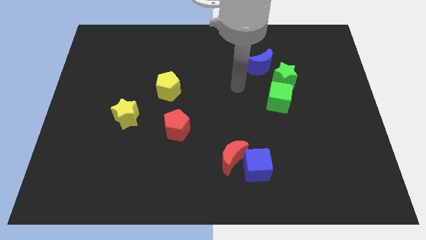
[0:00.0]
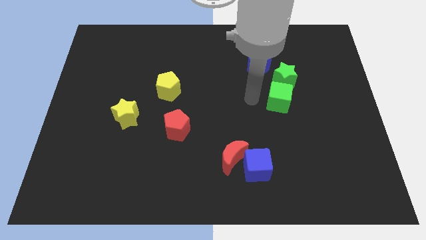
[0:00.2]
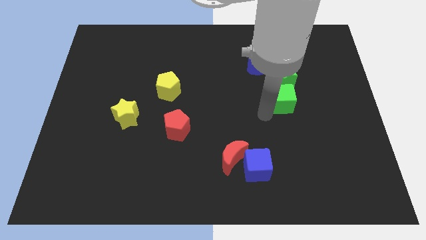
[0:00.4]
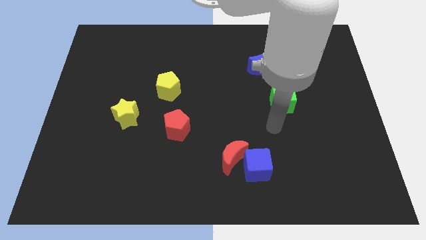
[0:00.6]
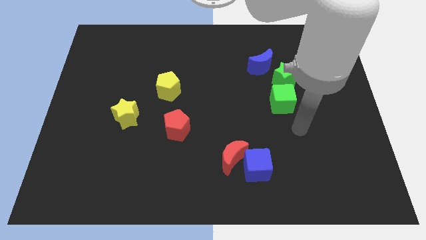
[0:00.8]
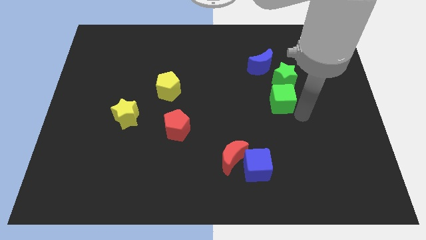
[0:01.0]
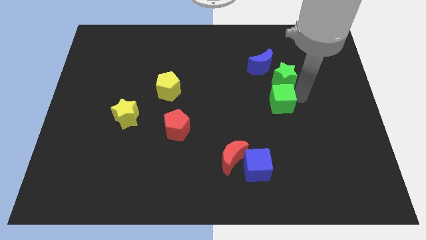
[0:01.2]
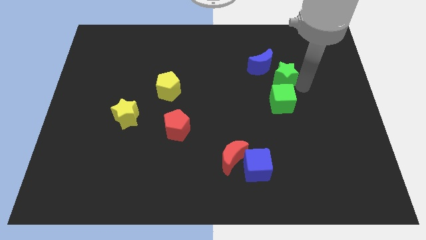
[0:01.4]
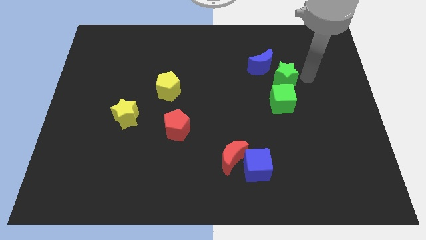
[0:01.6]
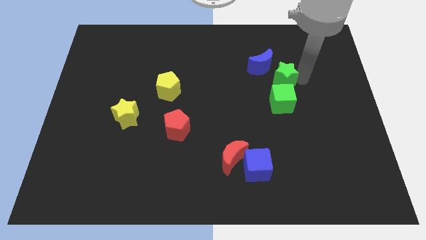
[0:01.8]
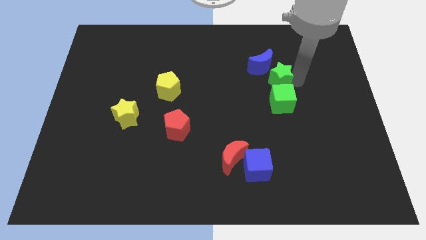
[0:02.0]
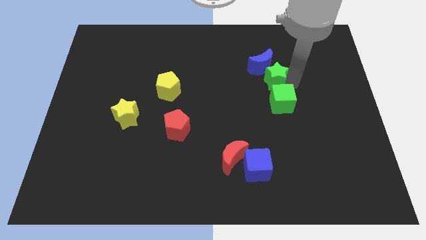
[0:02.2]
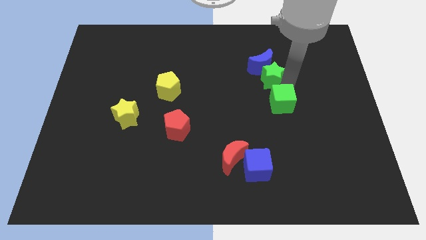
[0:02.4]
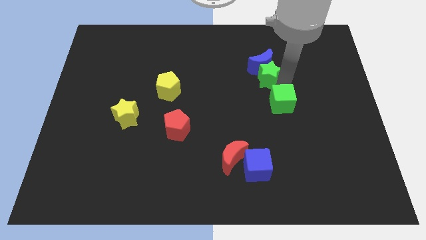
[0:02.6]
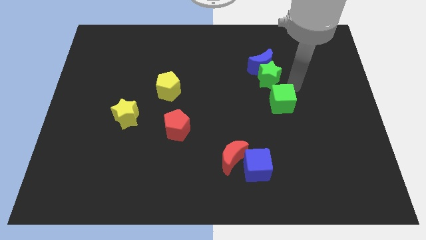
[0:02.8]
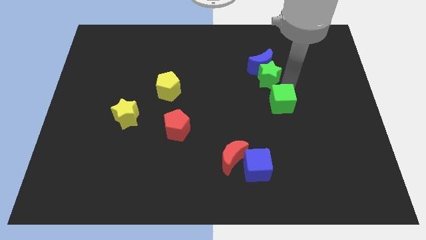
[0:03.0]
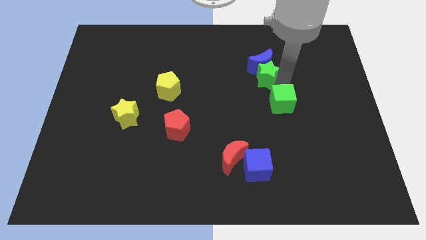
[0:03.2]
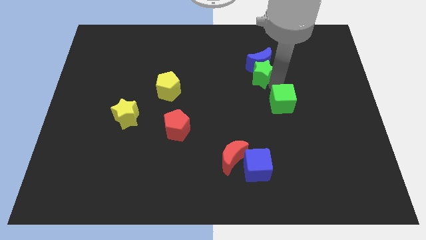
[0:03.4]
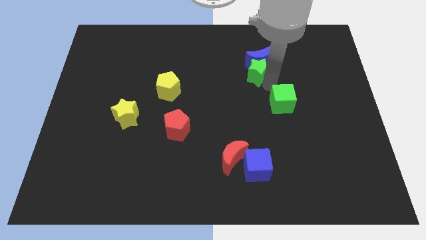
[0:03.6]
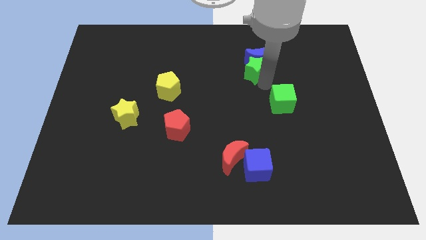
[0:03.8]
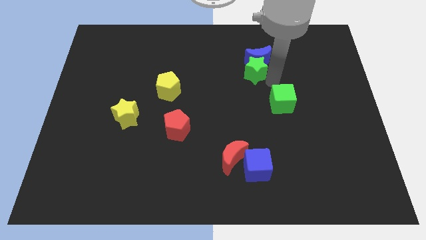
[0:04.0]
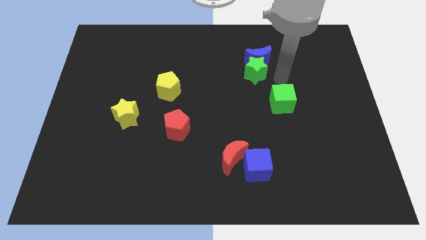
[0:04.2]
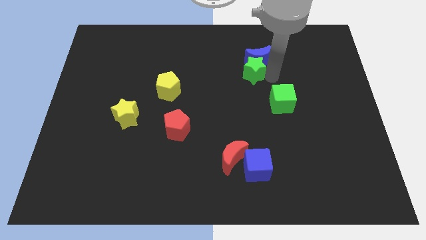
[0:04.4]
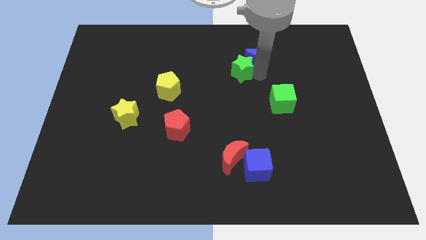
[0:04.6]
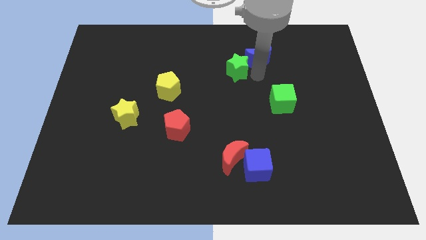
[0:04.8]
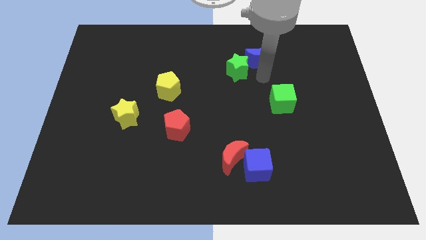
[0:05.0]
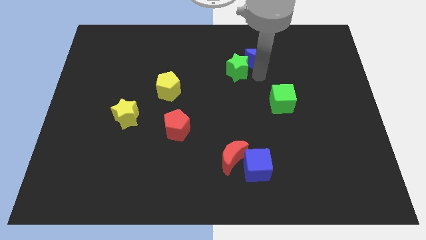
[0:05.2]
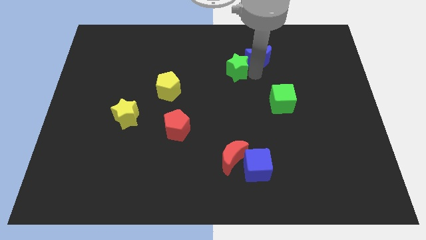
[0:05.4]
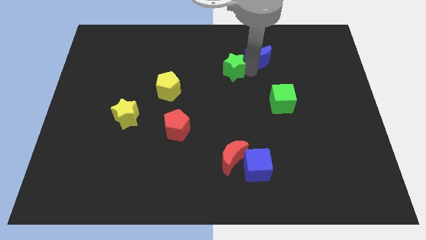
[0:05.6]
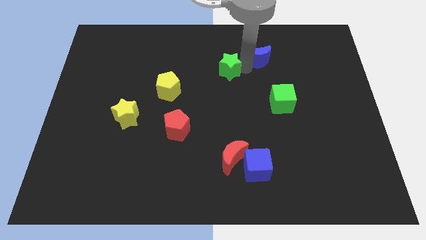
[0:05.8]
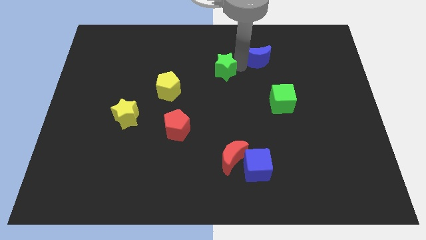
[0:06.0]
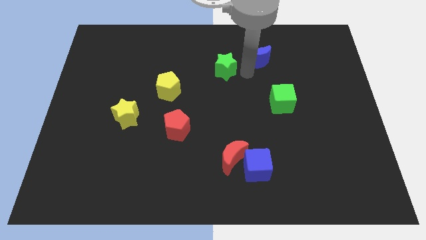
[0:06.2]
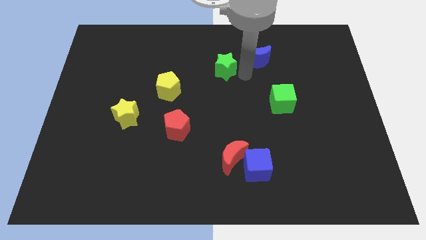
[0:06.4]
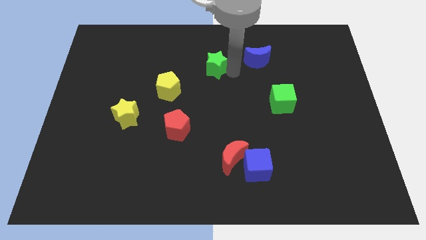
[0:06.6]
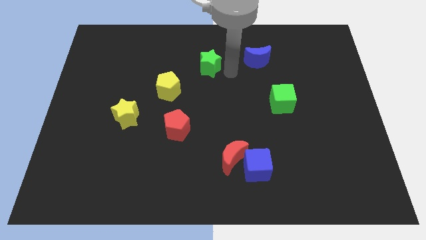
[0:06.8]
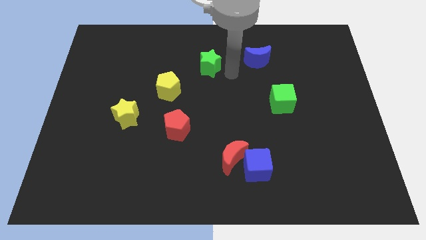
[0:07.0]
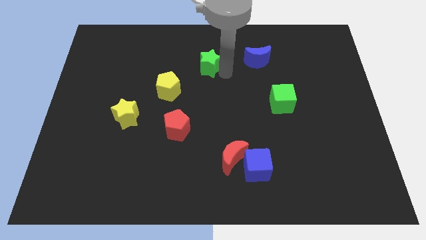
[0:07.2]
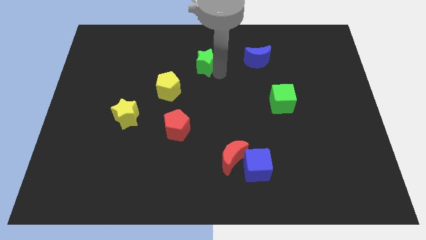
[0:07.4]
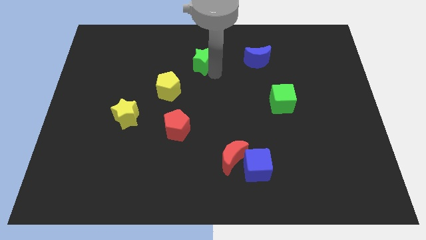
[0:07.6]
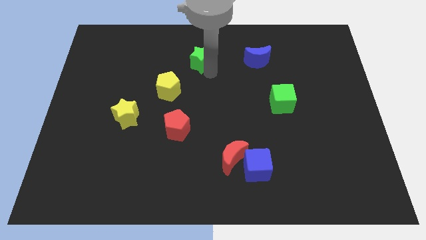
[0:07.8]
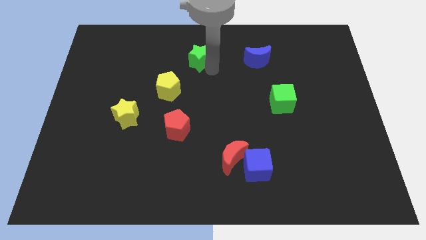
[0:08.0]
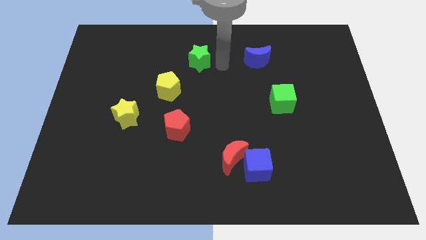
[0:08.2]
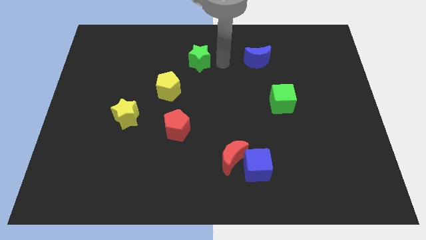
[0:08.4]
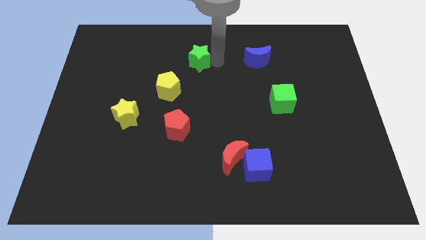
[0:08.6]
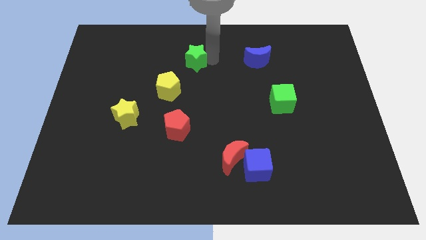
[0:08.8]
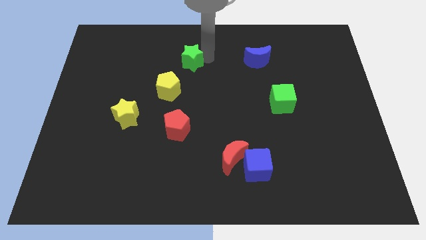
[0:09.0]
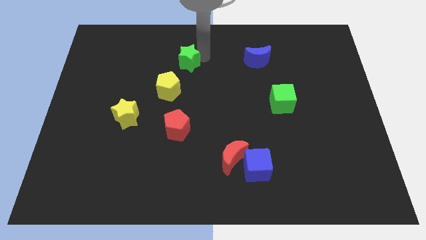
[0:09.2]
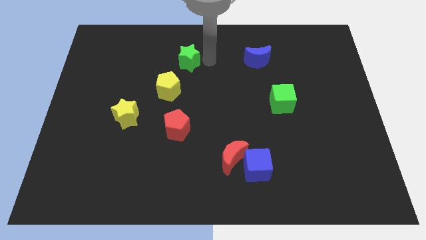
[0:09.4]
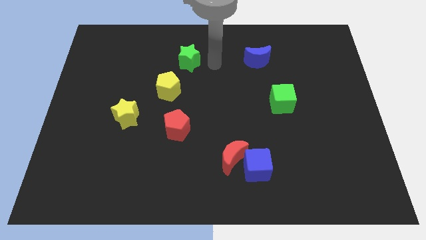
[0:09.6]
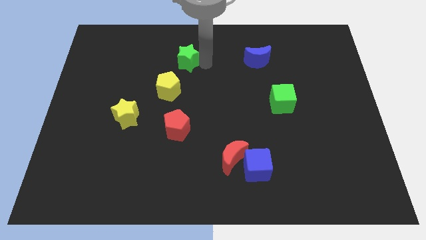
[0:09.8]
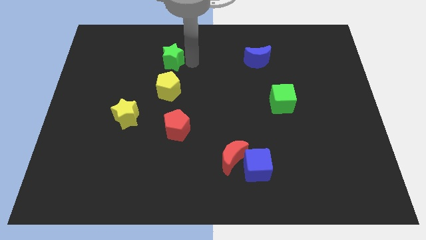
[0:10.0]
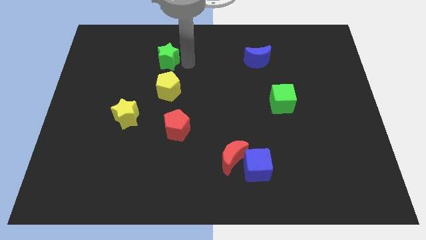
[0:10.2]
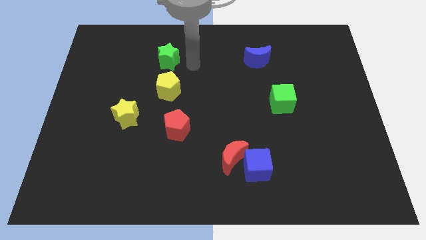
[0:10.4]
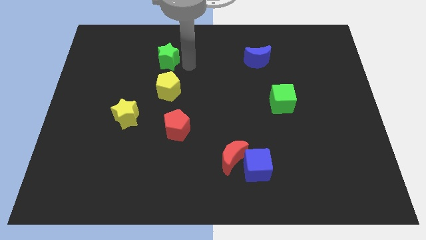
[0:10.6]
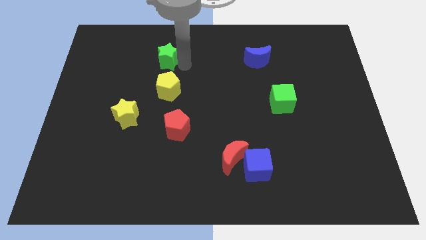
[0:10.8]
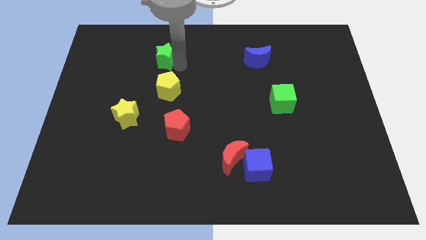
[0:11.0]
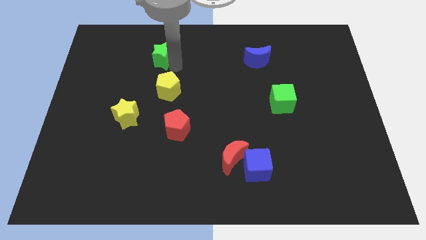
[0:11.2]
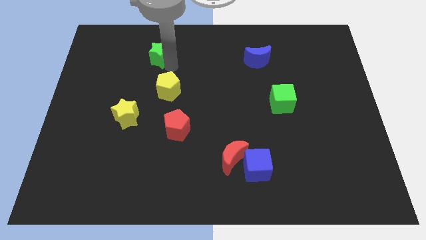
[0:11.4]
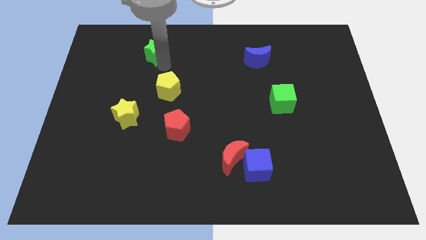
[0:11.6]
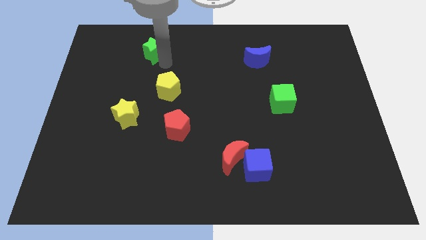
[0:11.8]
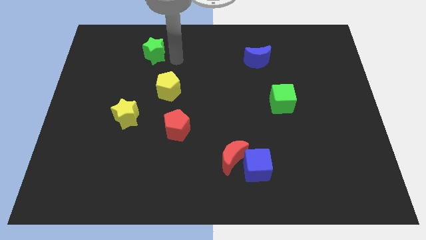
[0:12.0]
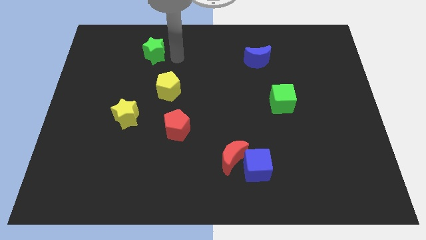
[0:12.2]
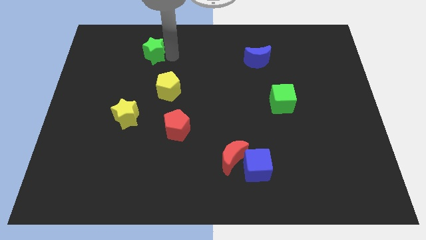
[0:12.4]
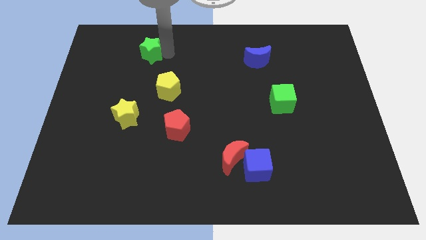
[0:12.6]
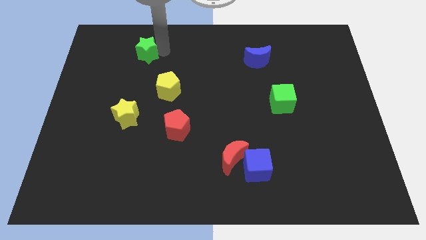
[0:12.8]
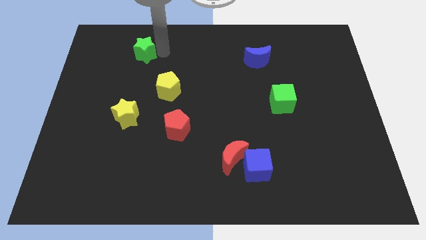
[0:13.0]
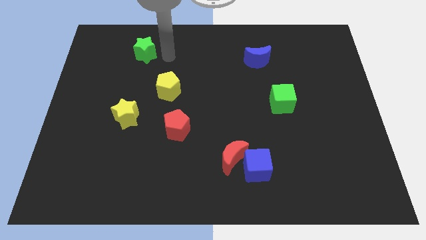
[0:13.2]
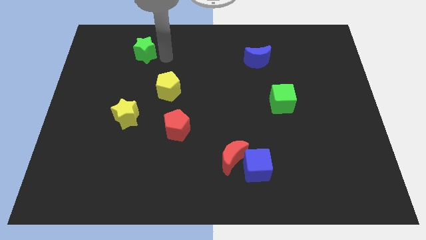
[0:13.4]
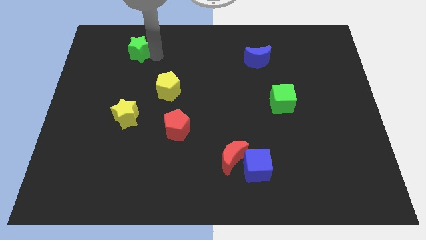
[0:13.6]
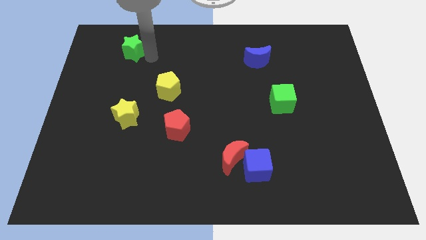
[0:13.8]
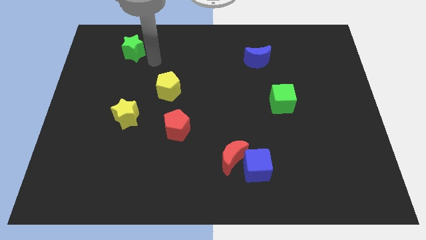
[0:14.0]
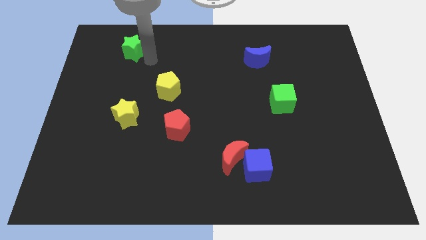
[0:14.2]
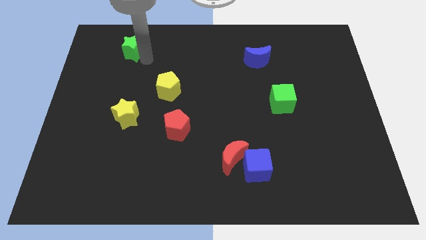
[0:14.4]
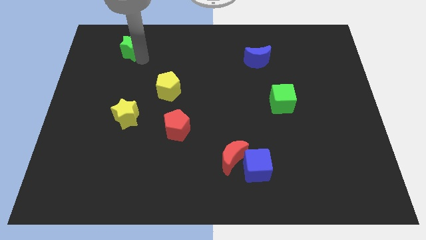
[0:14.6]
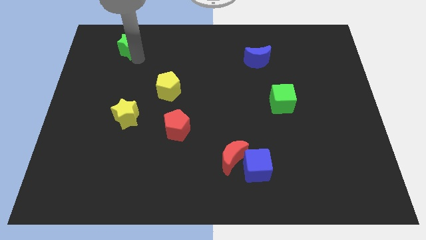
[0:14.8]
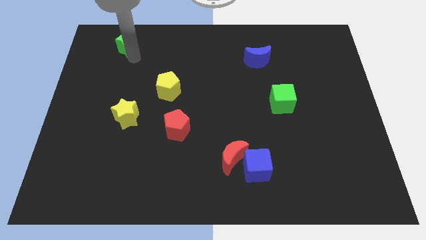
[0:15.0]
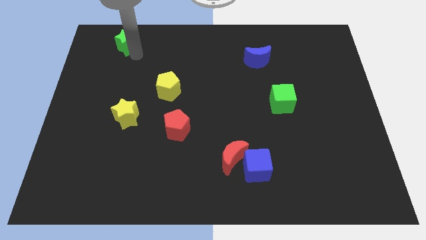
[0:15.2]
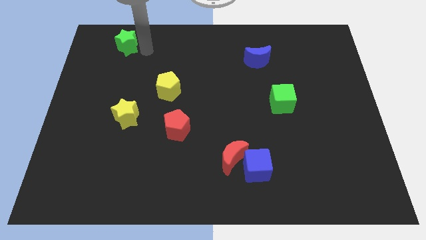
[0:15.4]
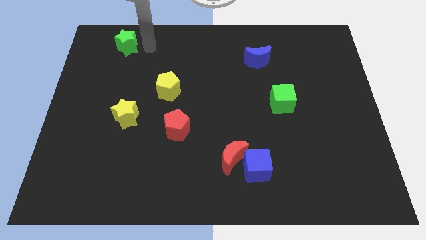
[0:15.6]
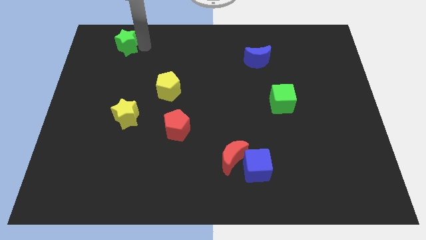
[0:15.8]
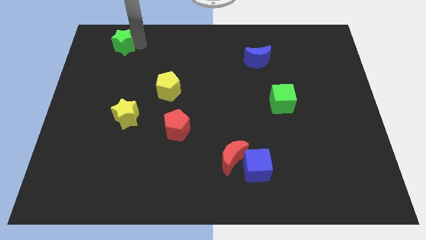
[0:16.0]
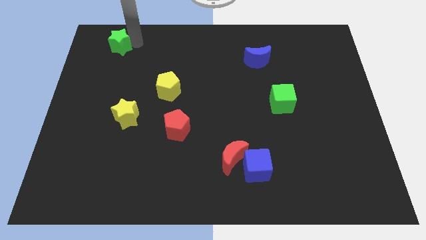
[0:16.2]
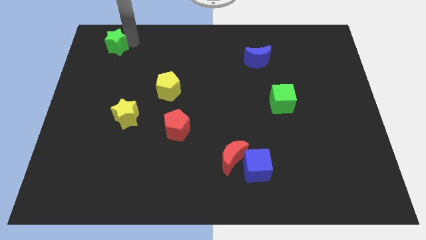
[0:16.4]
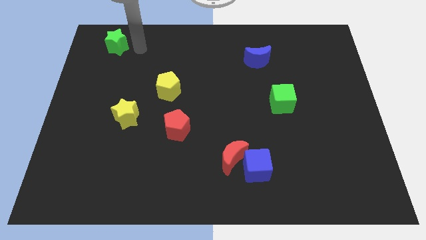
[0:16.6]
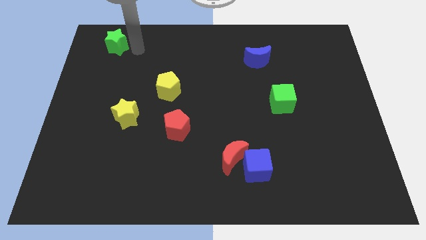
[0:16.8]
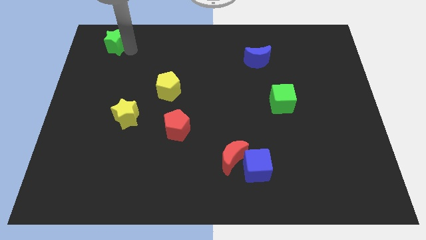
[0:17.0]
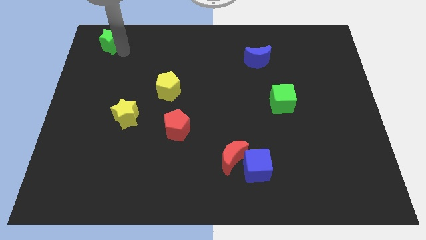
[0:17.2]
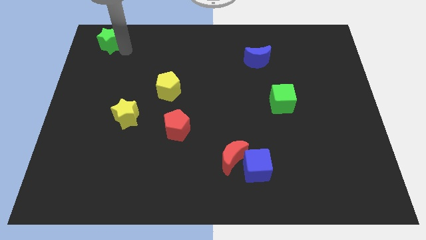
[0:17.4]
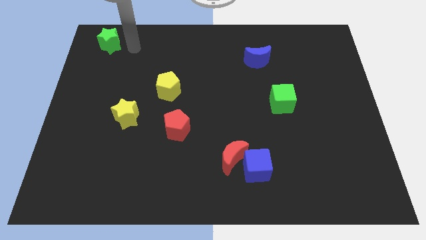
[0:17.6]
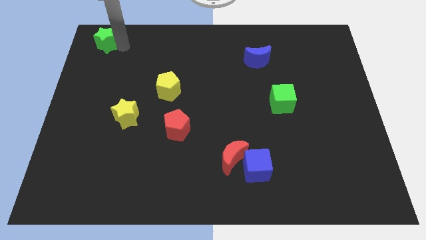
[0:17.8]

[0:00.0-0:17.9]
push the green star to the top left corner
